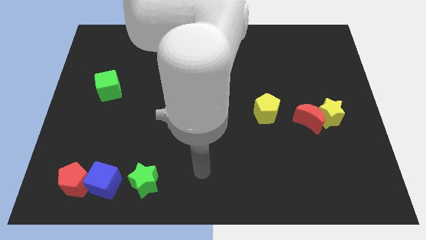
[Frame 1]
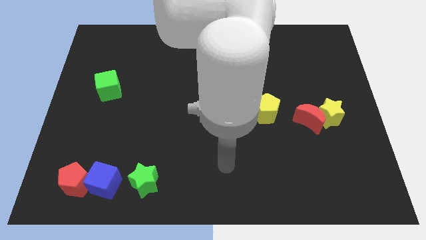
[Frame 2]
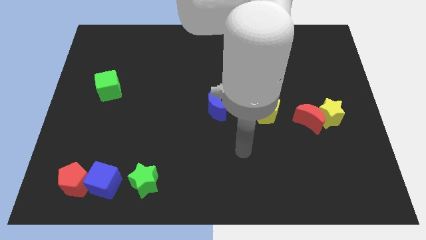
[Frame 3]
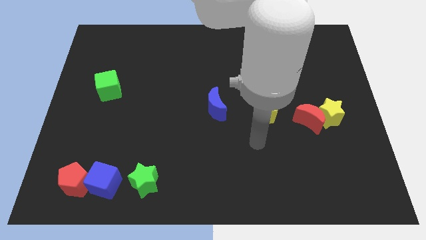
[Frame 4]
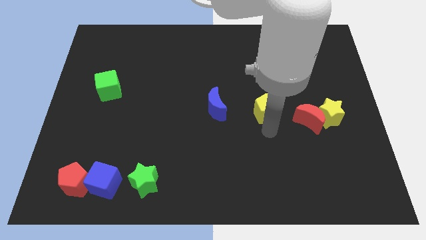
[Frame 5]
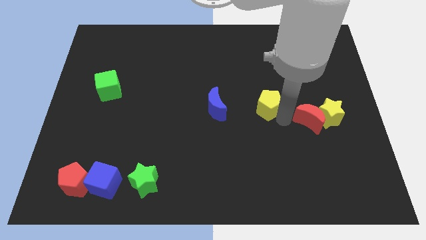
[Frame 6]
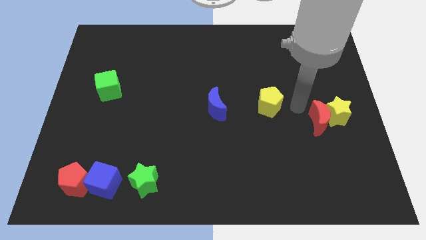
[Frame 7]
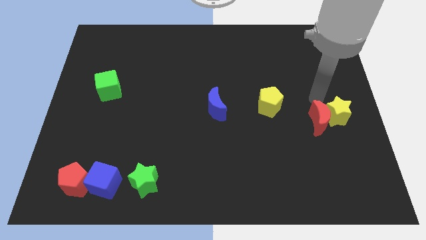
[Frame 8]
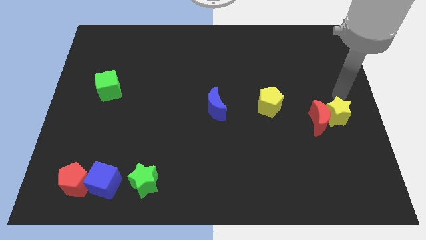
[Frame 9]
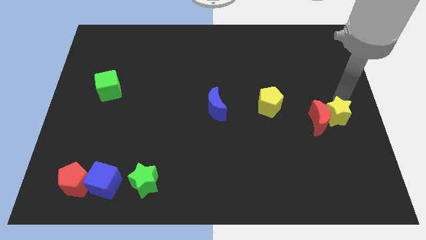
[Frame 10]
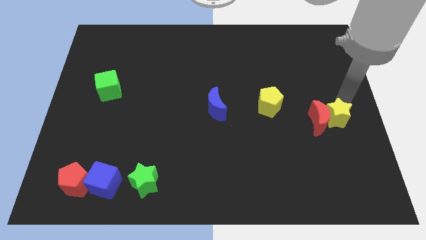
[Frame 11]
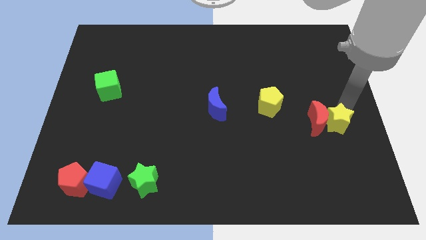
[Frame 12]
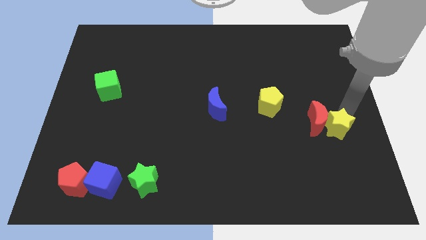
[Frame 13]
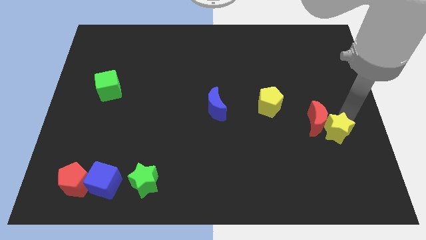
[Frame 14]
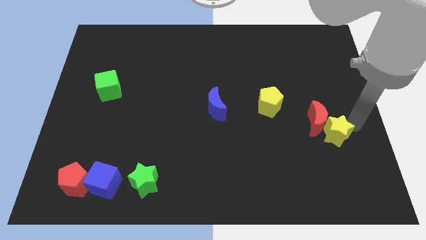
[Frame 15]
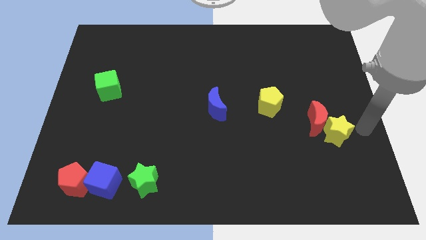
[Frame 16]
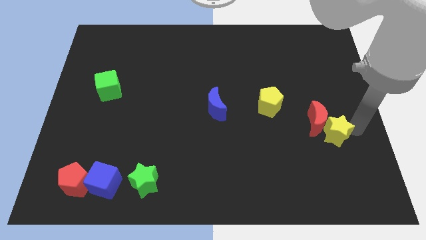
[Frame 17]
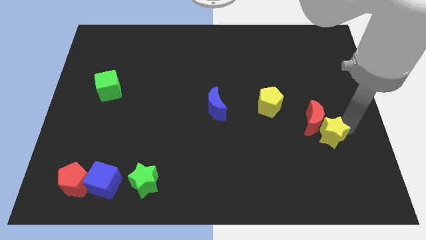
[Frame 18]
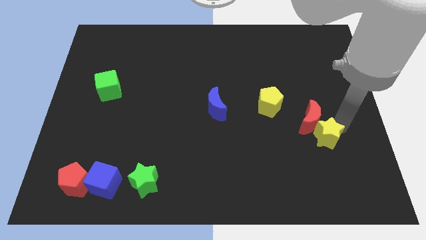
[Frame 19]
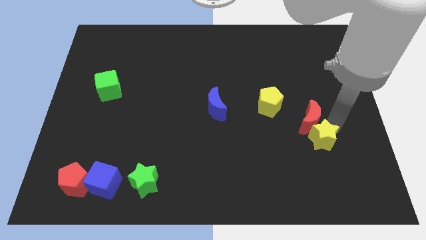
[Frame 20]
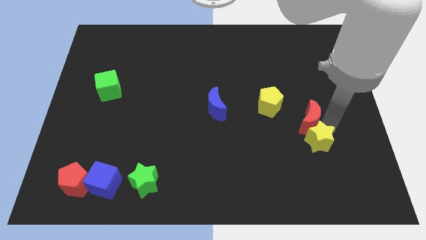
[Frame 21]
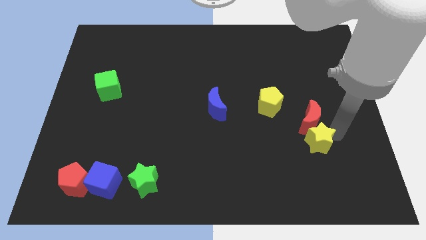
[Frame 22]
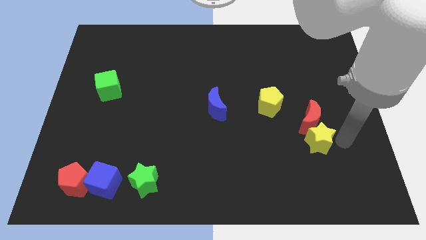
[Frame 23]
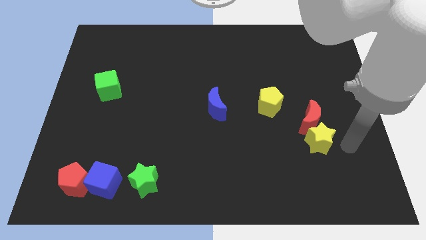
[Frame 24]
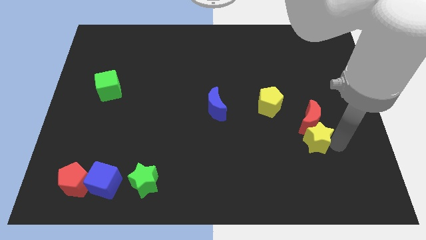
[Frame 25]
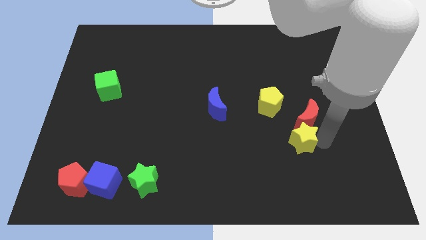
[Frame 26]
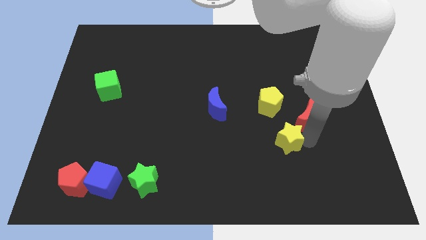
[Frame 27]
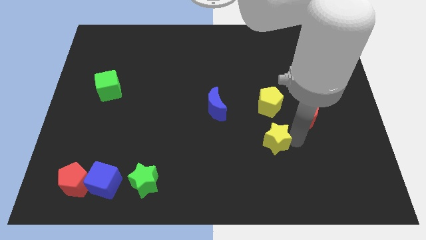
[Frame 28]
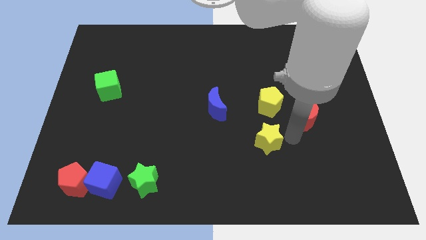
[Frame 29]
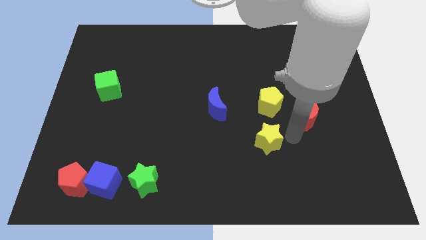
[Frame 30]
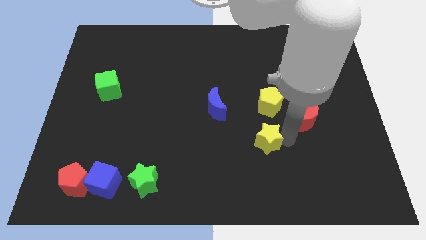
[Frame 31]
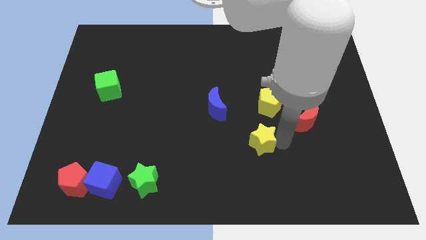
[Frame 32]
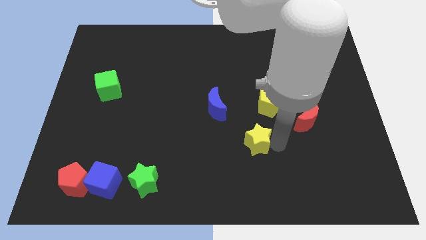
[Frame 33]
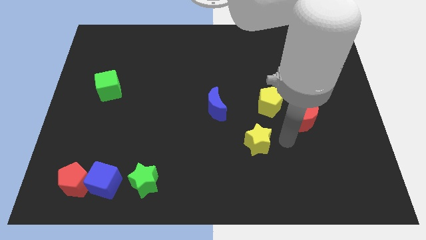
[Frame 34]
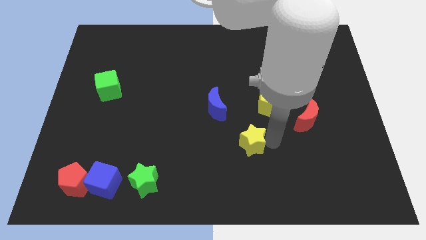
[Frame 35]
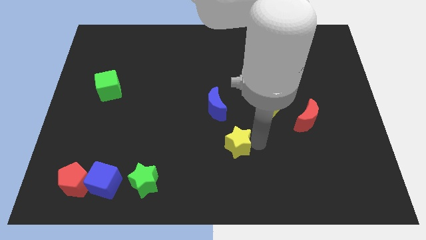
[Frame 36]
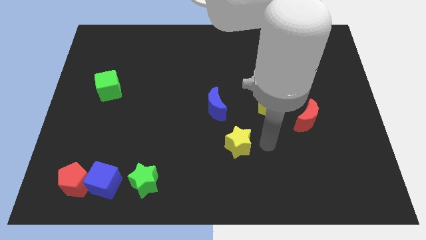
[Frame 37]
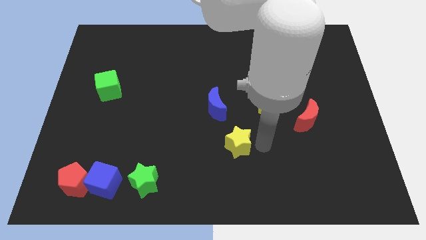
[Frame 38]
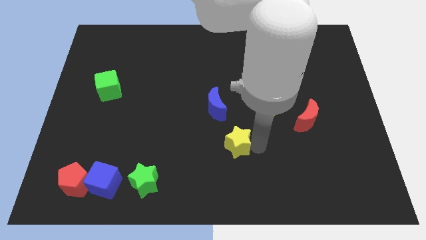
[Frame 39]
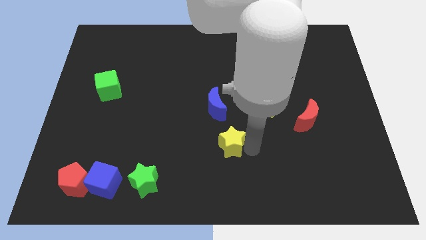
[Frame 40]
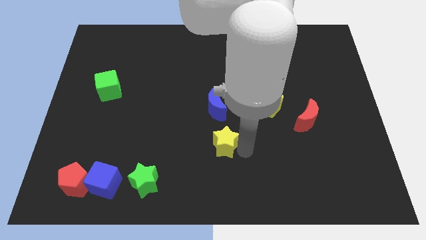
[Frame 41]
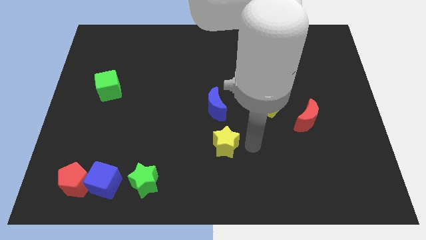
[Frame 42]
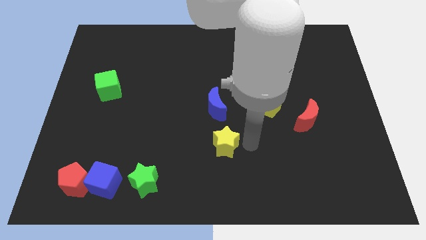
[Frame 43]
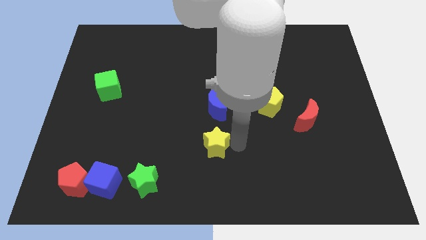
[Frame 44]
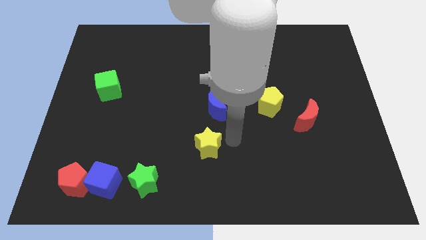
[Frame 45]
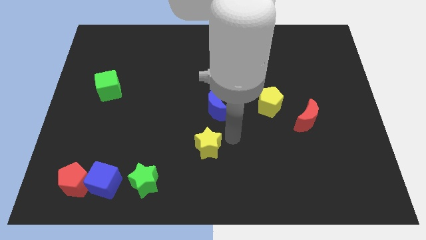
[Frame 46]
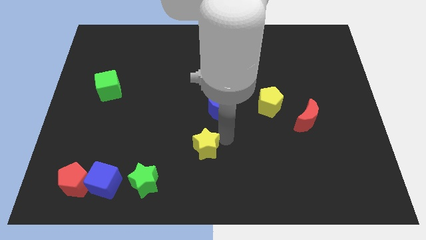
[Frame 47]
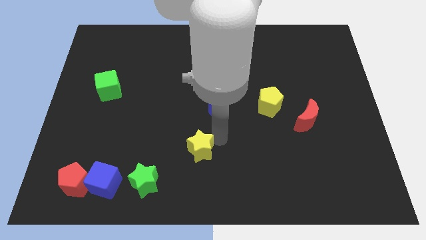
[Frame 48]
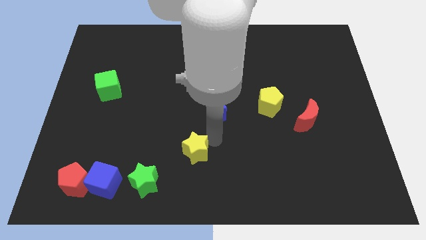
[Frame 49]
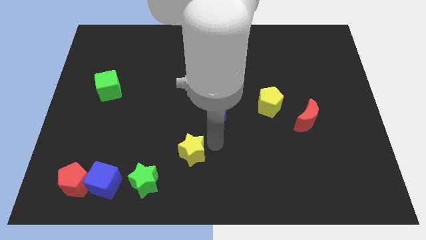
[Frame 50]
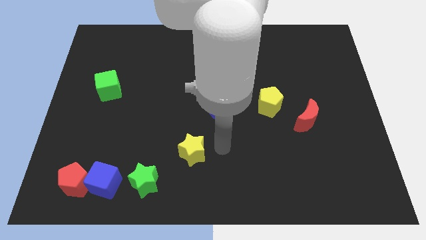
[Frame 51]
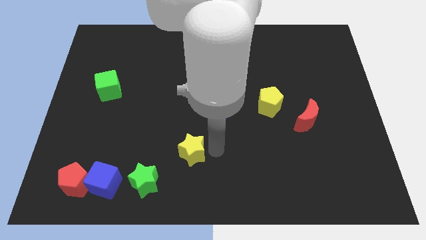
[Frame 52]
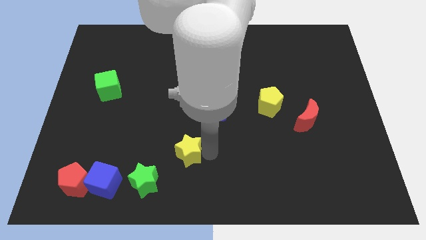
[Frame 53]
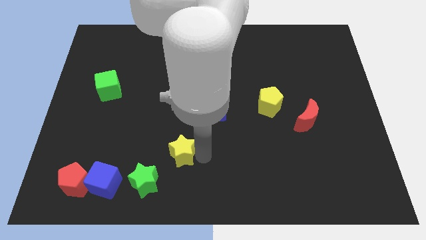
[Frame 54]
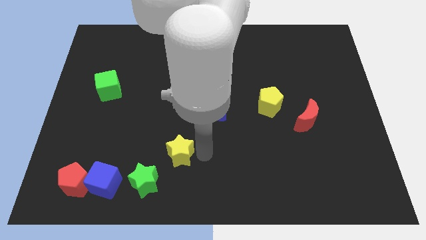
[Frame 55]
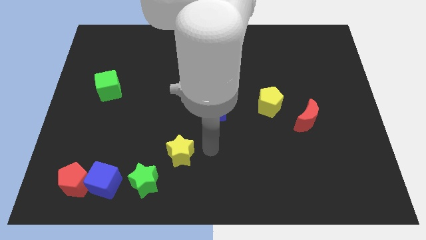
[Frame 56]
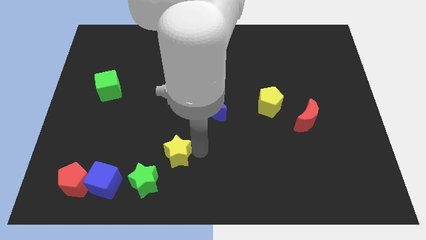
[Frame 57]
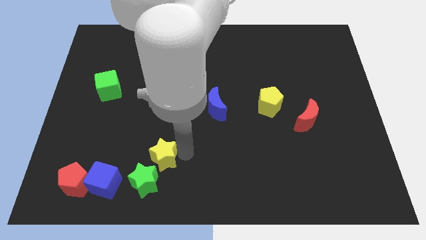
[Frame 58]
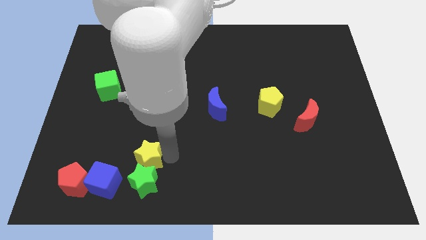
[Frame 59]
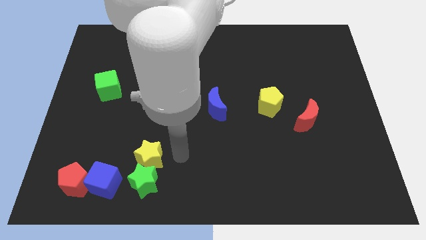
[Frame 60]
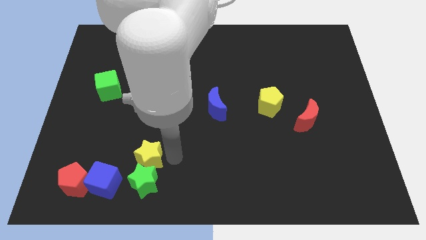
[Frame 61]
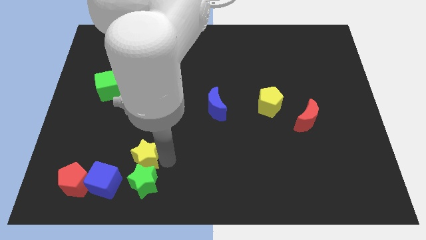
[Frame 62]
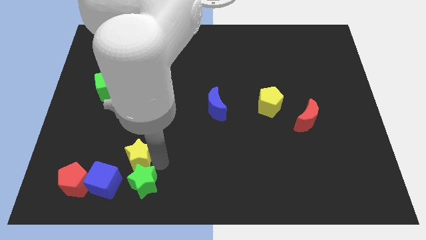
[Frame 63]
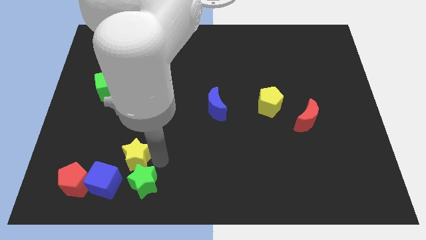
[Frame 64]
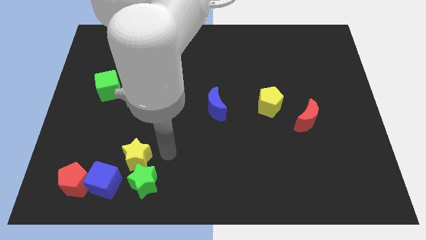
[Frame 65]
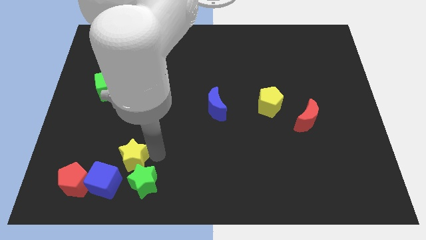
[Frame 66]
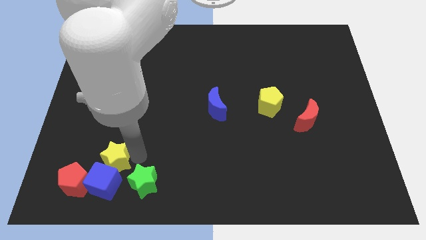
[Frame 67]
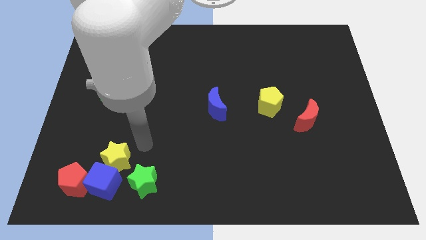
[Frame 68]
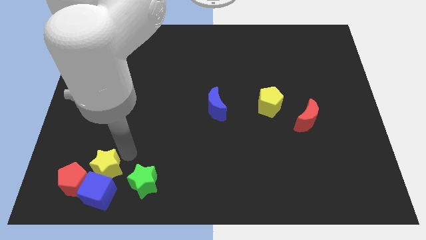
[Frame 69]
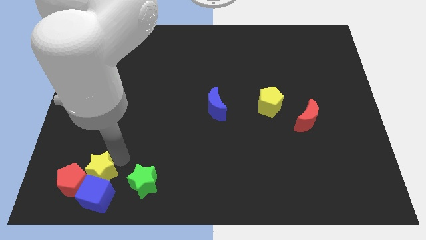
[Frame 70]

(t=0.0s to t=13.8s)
push the yellow star next to the red pentagon

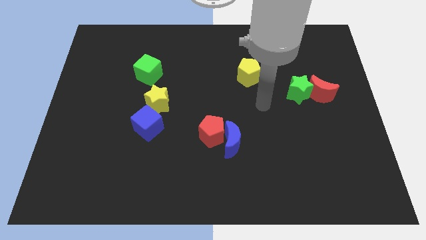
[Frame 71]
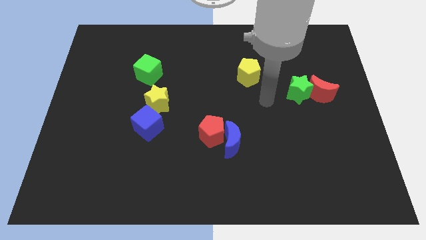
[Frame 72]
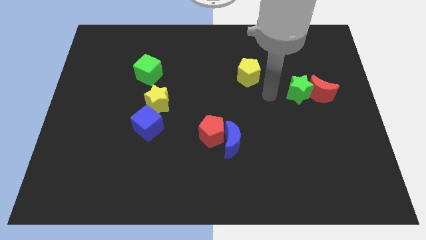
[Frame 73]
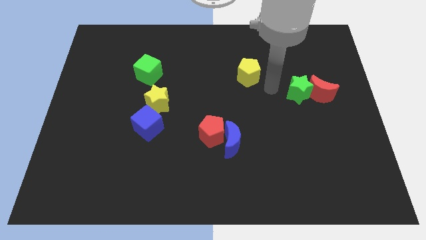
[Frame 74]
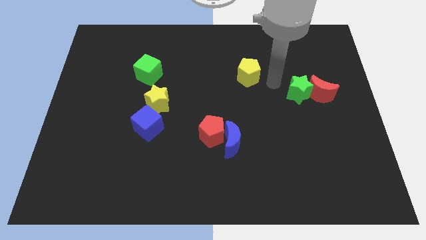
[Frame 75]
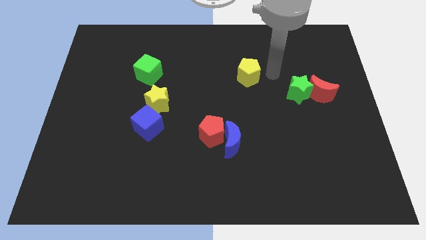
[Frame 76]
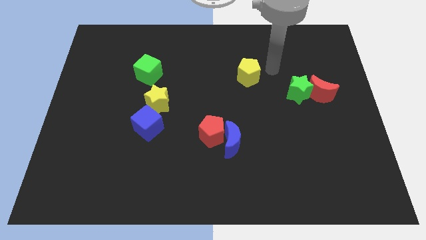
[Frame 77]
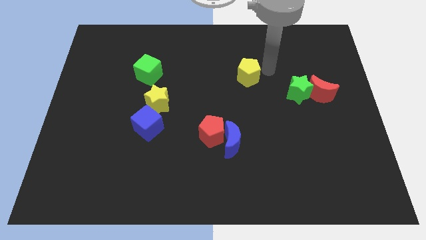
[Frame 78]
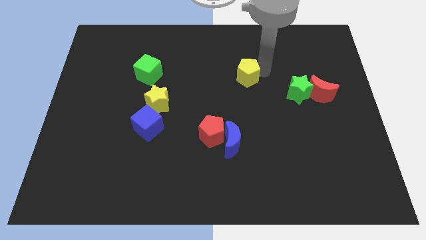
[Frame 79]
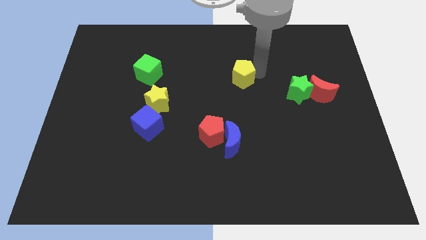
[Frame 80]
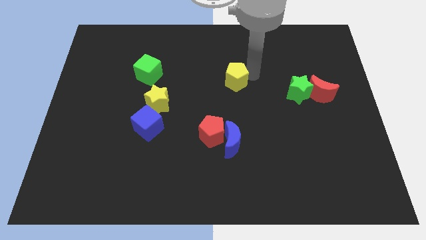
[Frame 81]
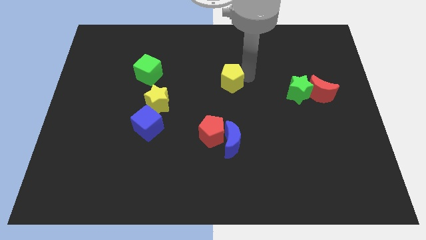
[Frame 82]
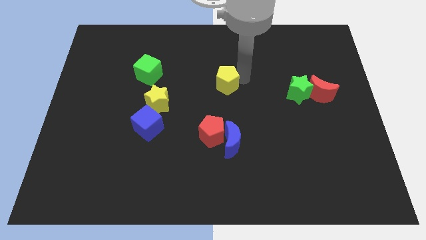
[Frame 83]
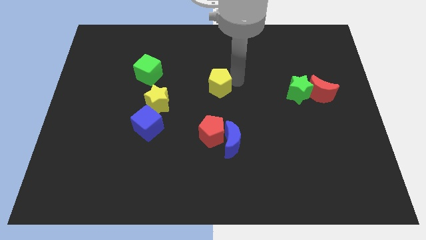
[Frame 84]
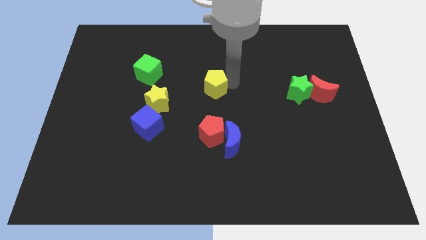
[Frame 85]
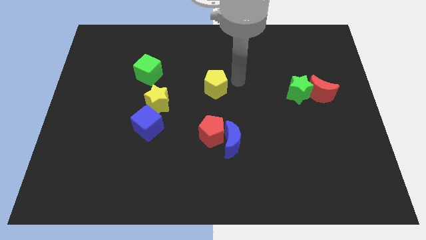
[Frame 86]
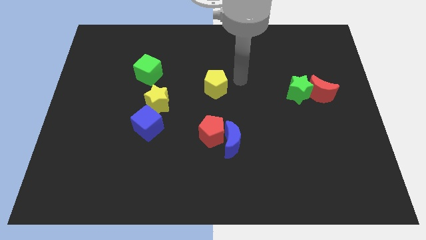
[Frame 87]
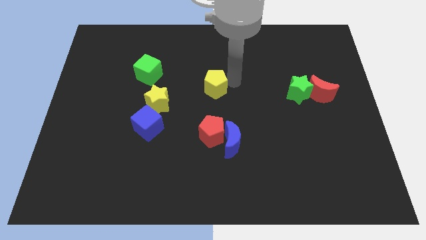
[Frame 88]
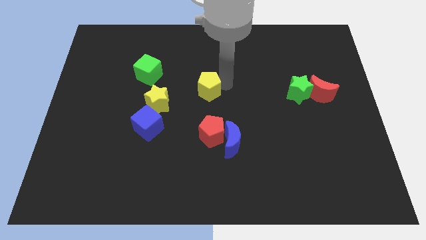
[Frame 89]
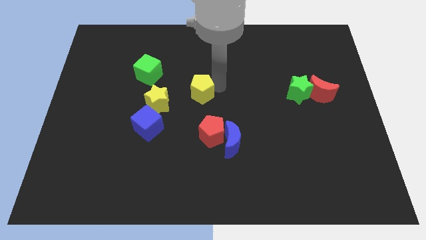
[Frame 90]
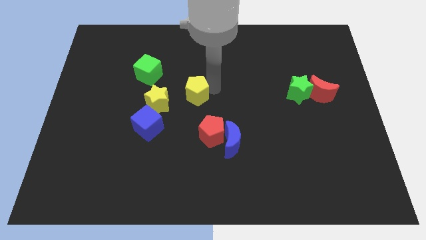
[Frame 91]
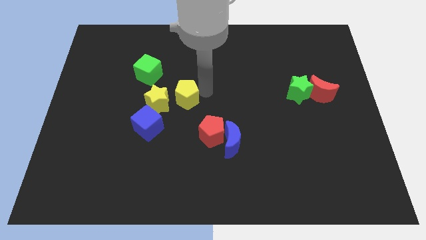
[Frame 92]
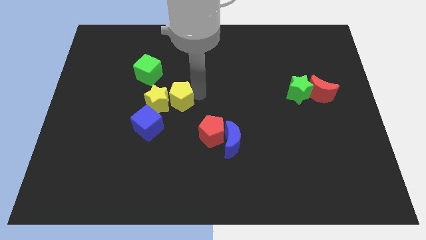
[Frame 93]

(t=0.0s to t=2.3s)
move the yellow pentagon close to the yellow star
